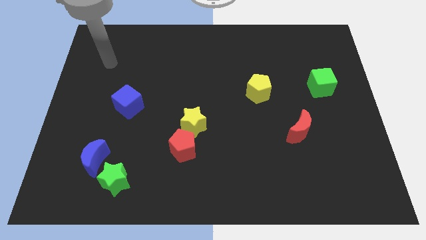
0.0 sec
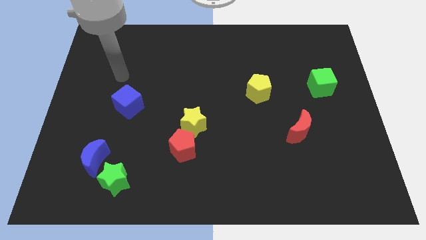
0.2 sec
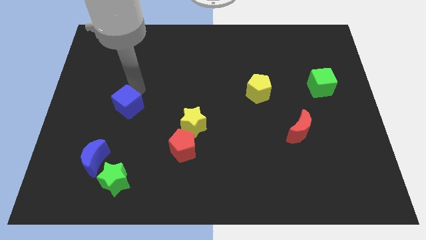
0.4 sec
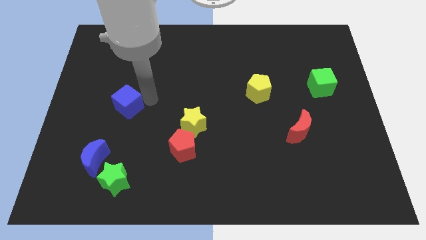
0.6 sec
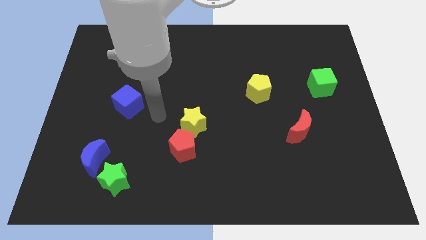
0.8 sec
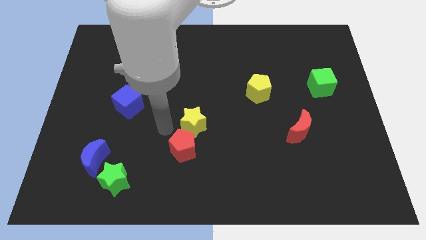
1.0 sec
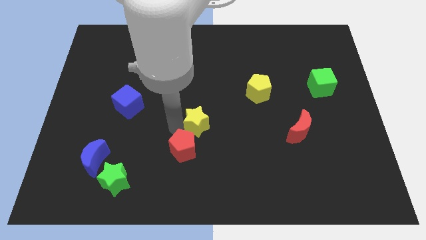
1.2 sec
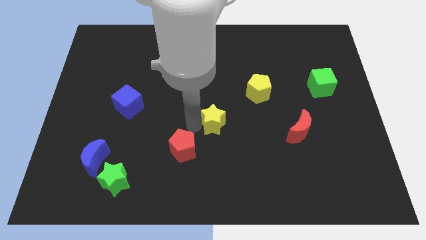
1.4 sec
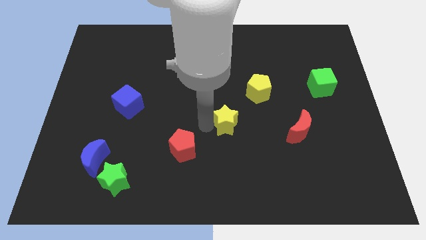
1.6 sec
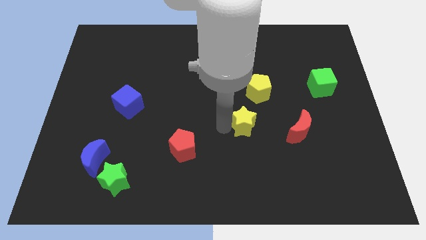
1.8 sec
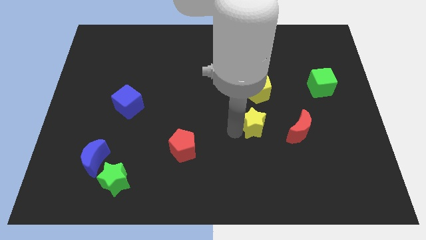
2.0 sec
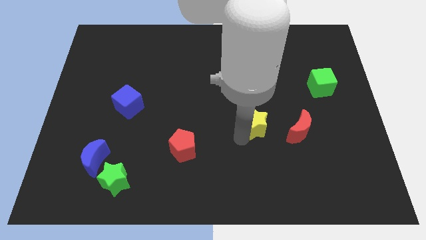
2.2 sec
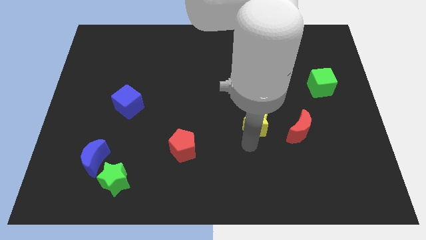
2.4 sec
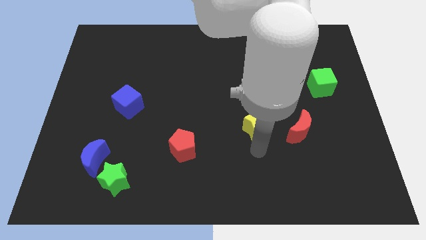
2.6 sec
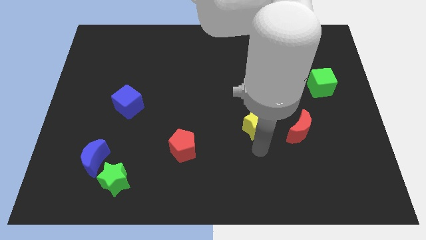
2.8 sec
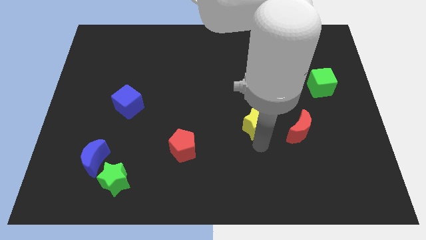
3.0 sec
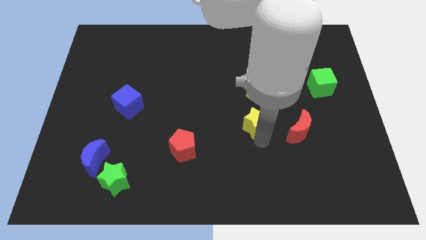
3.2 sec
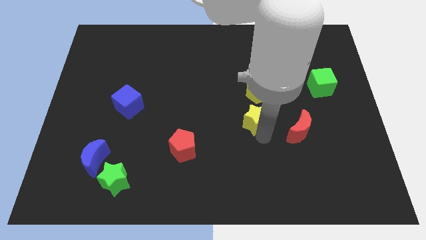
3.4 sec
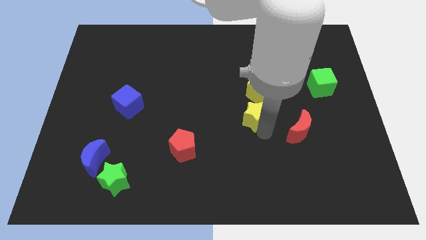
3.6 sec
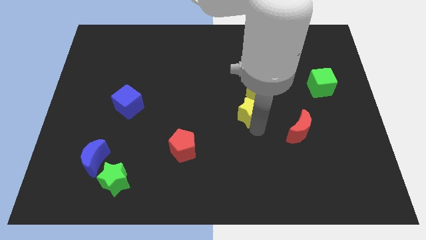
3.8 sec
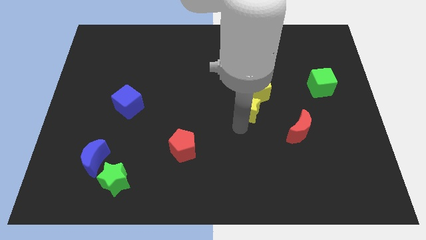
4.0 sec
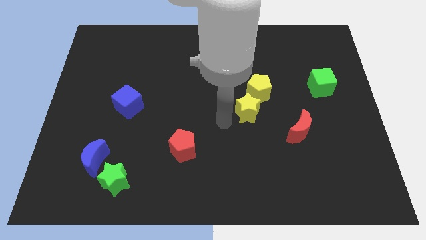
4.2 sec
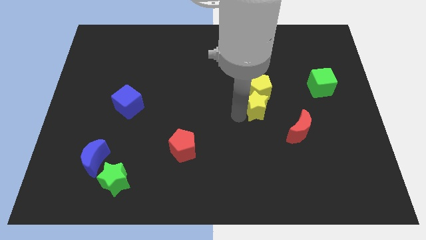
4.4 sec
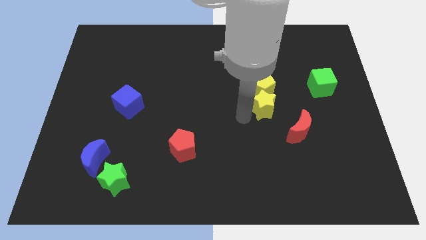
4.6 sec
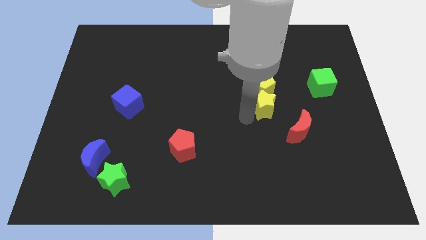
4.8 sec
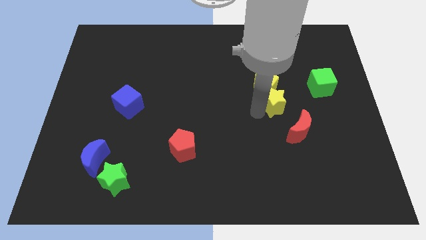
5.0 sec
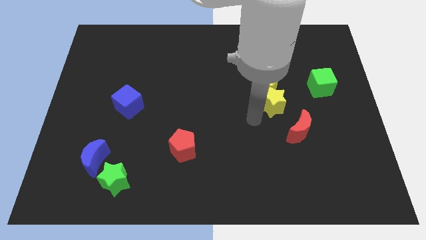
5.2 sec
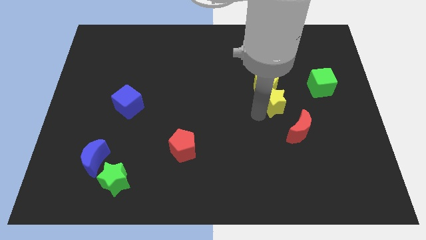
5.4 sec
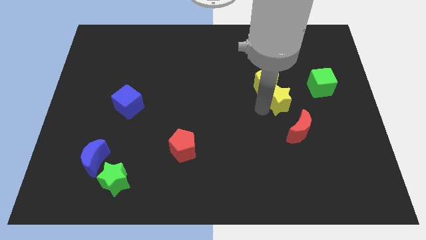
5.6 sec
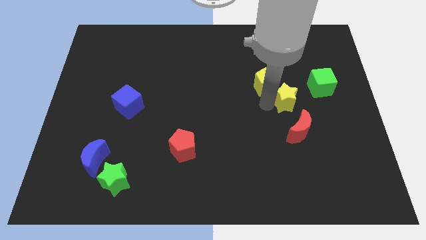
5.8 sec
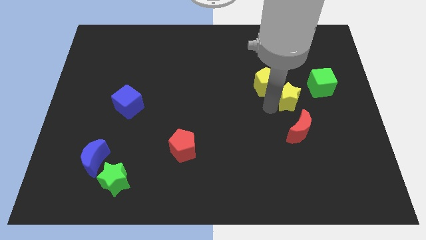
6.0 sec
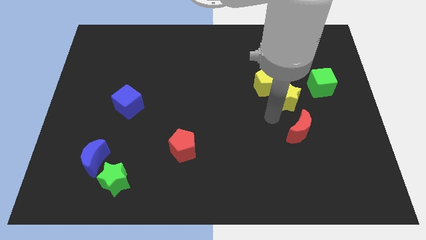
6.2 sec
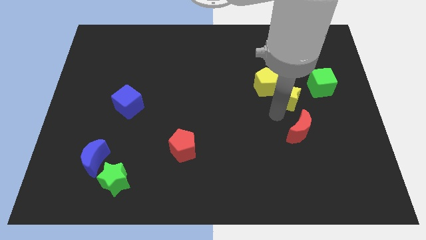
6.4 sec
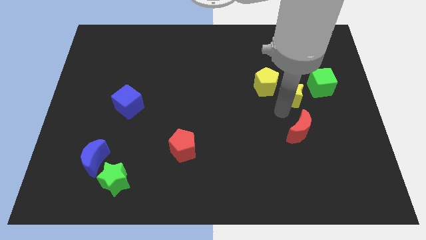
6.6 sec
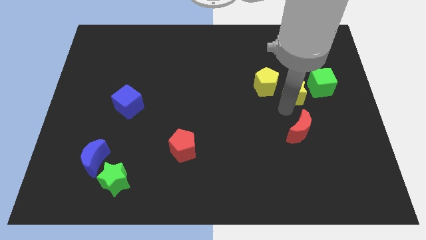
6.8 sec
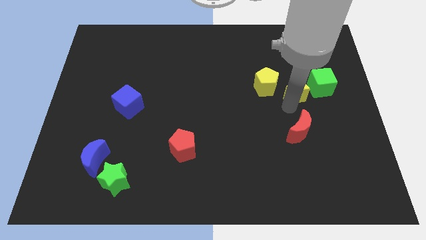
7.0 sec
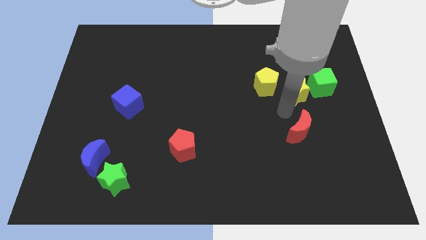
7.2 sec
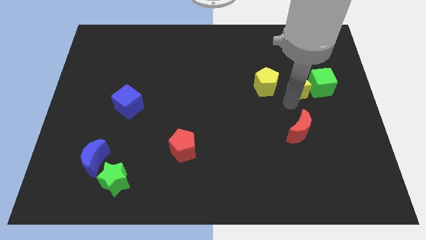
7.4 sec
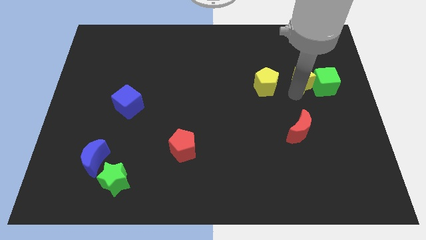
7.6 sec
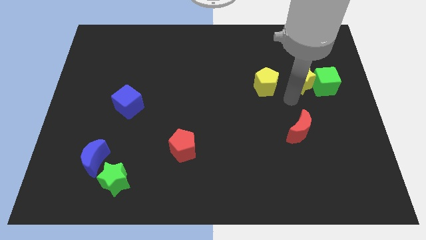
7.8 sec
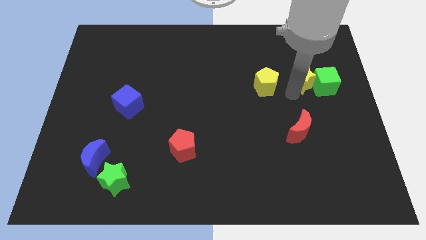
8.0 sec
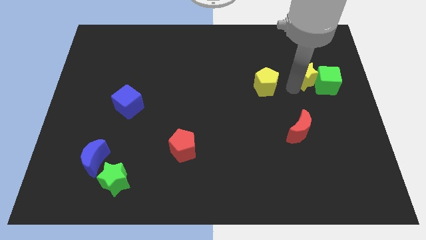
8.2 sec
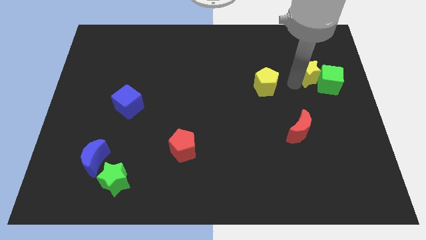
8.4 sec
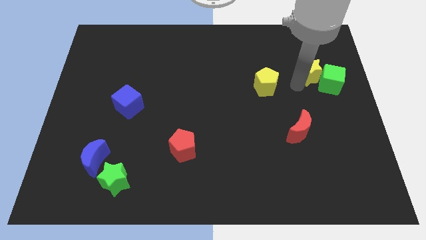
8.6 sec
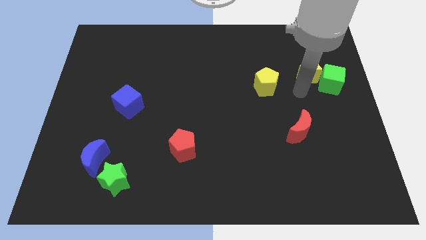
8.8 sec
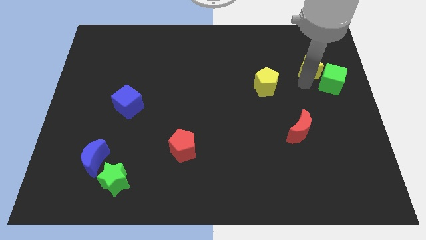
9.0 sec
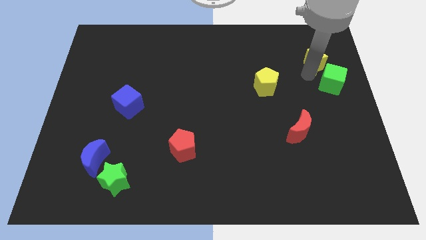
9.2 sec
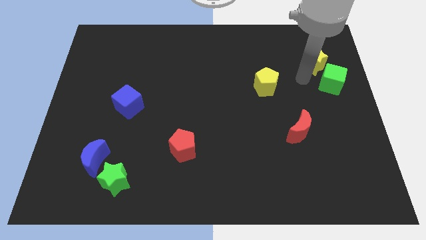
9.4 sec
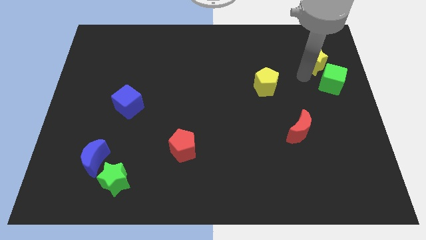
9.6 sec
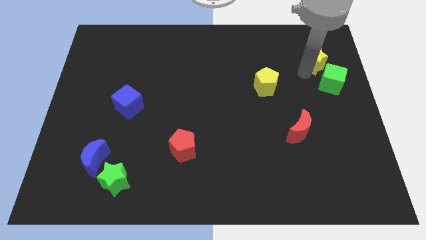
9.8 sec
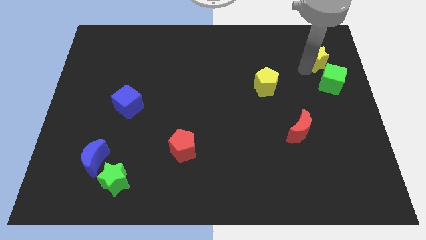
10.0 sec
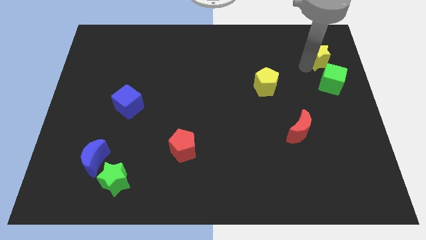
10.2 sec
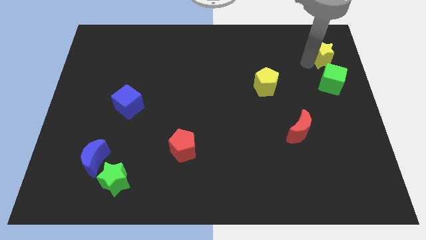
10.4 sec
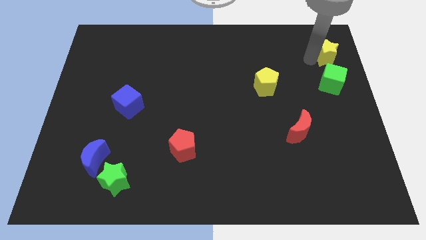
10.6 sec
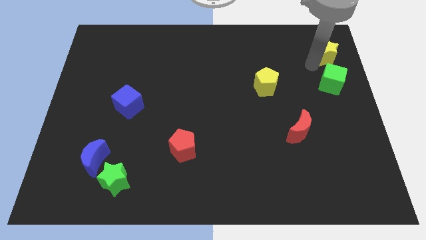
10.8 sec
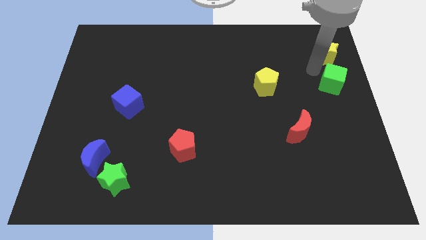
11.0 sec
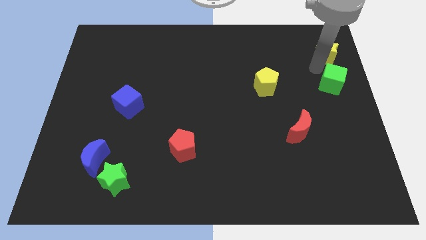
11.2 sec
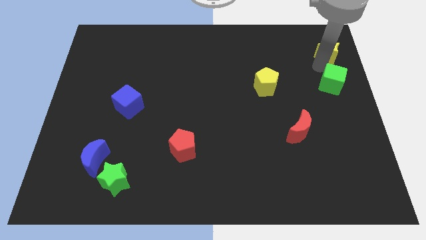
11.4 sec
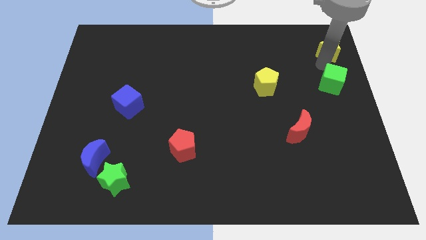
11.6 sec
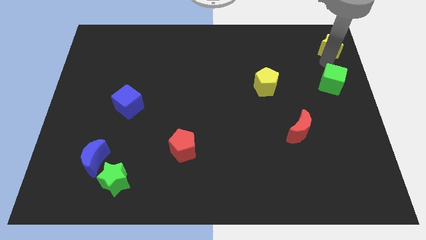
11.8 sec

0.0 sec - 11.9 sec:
put the yellow star to the upper right corner

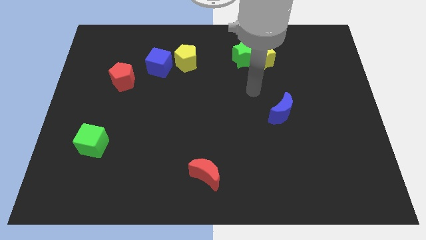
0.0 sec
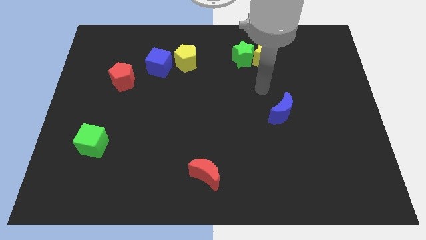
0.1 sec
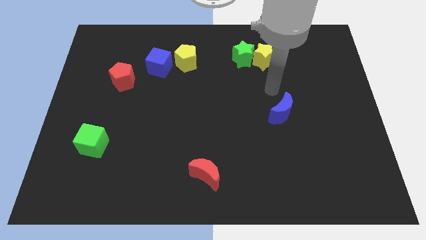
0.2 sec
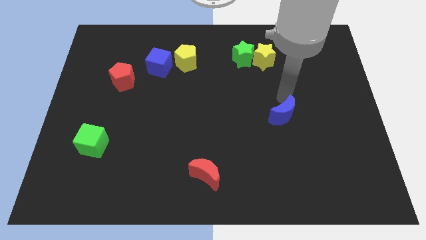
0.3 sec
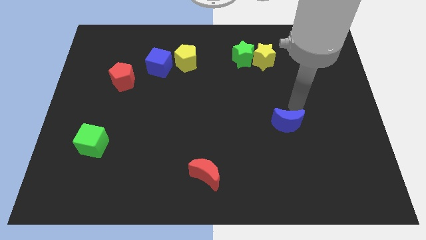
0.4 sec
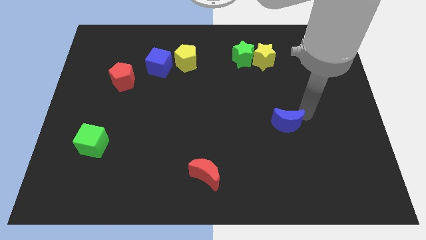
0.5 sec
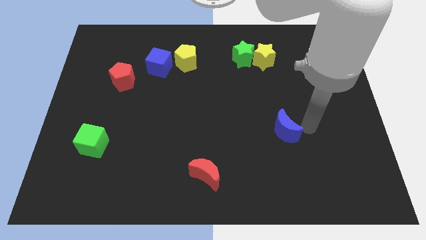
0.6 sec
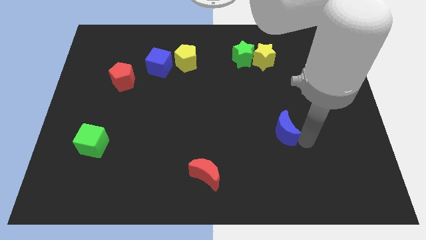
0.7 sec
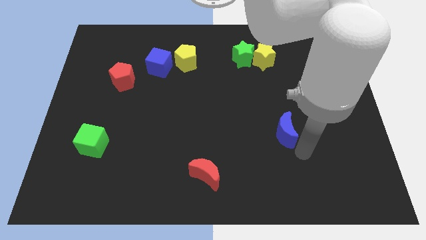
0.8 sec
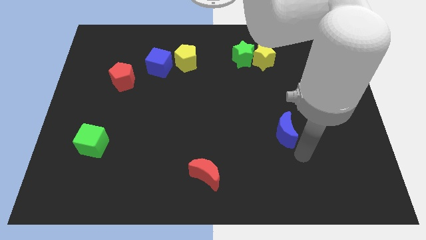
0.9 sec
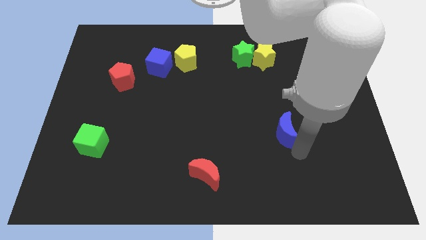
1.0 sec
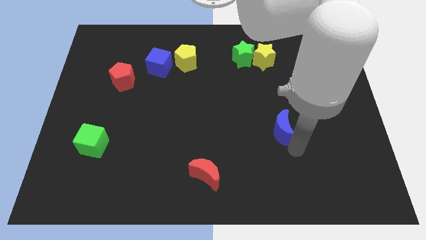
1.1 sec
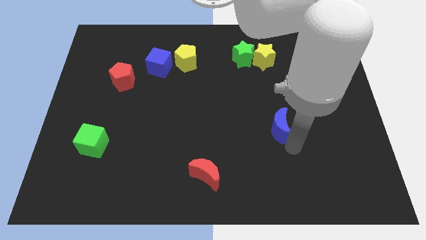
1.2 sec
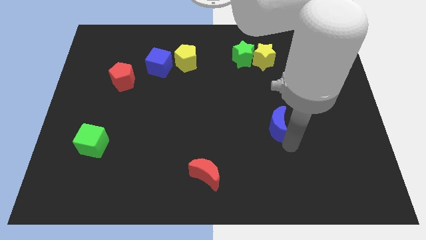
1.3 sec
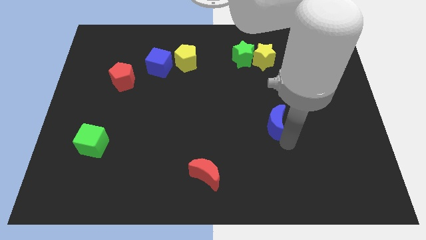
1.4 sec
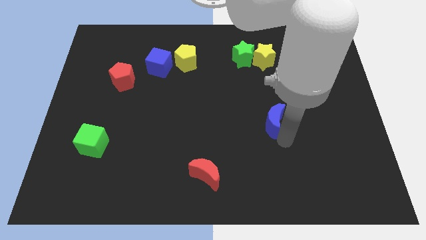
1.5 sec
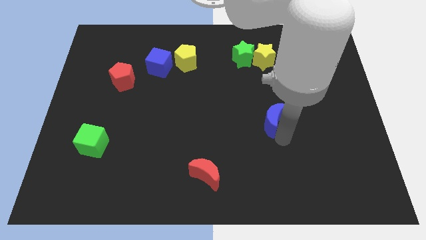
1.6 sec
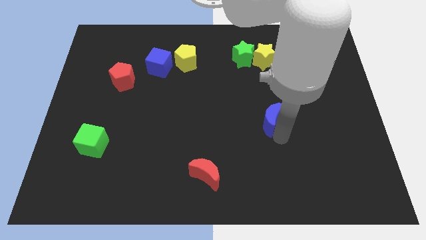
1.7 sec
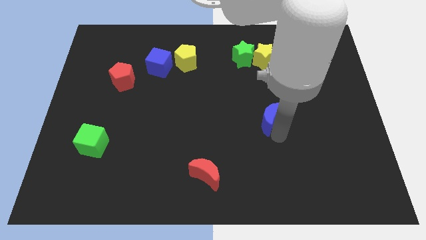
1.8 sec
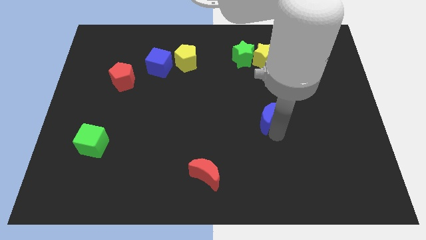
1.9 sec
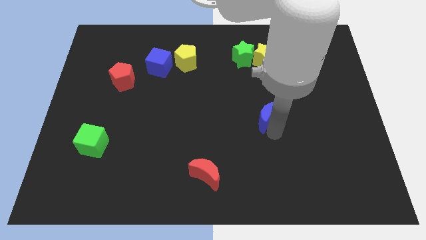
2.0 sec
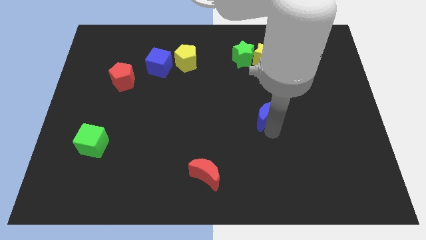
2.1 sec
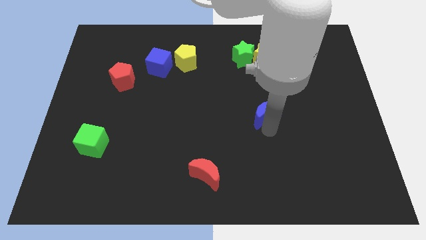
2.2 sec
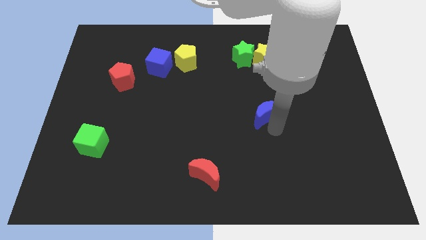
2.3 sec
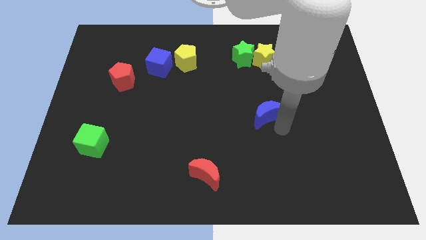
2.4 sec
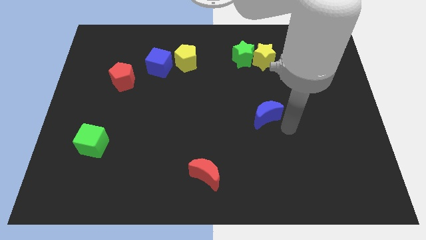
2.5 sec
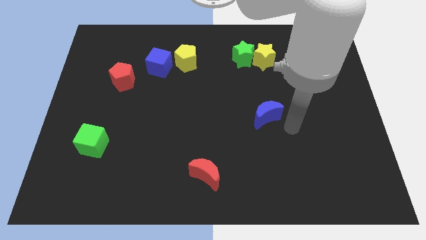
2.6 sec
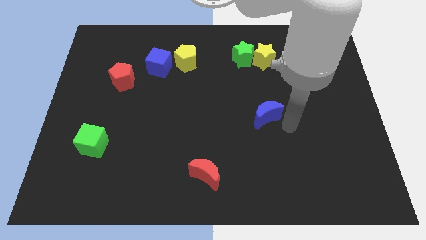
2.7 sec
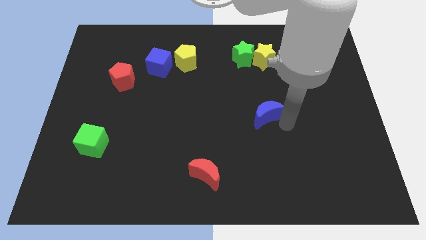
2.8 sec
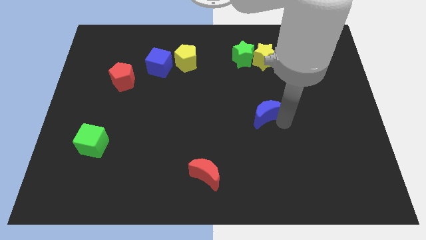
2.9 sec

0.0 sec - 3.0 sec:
slide the blue moon to the center
